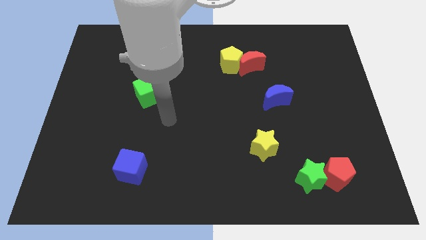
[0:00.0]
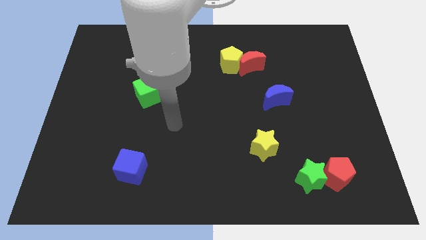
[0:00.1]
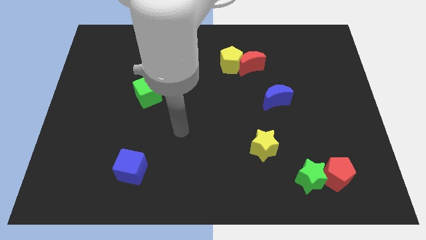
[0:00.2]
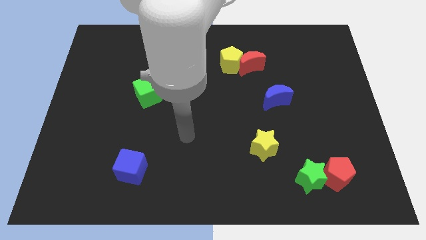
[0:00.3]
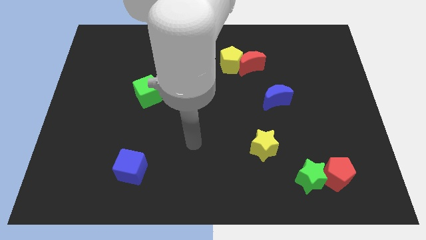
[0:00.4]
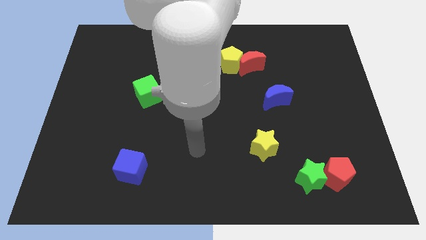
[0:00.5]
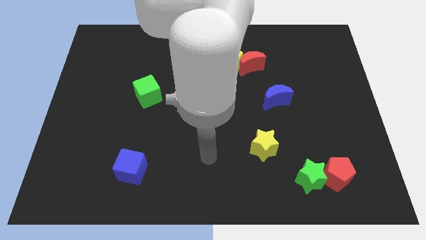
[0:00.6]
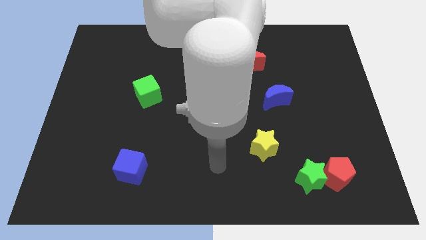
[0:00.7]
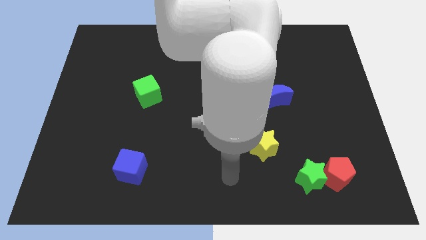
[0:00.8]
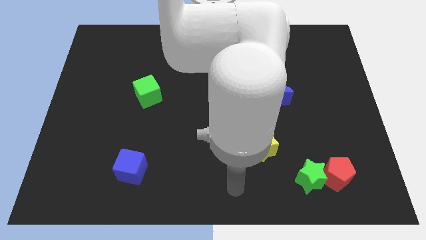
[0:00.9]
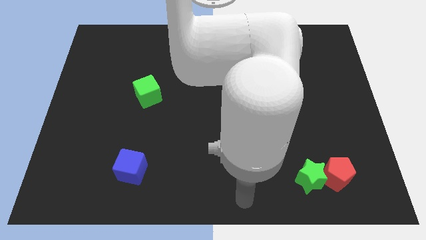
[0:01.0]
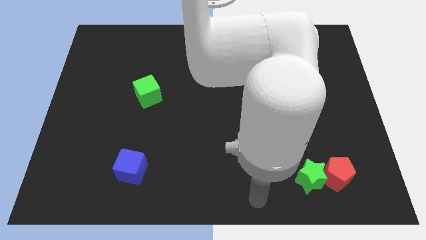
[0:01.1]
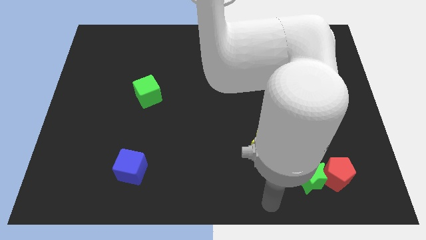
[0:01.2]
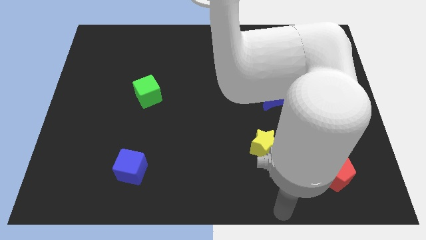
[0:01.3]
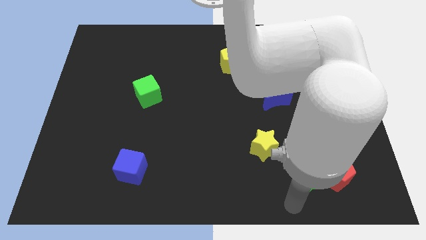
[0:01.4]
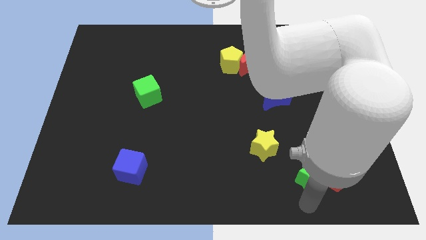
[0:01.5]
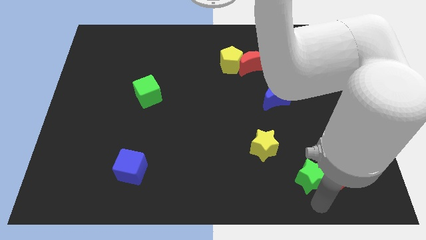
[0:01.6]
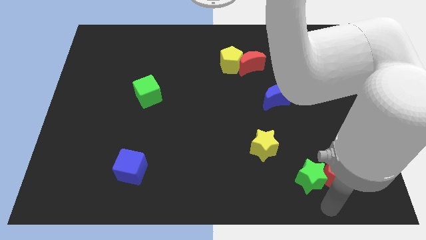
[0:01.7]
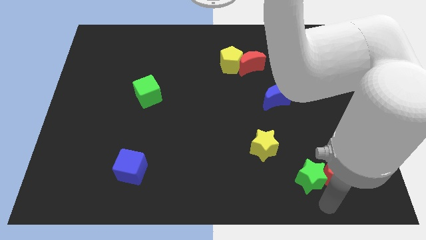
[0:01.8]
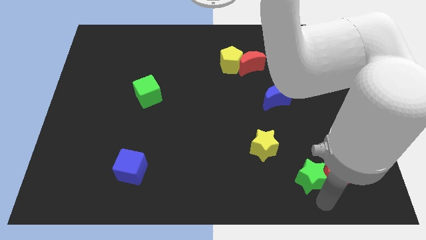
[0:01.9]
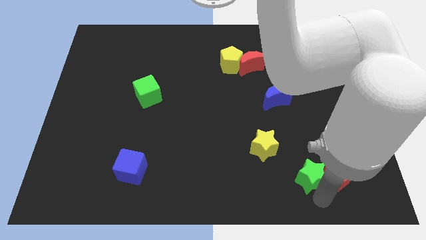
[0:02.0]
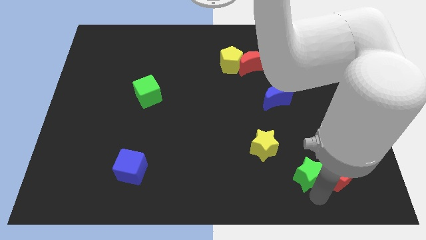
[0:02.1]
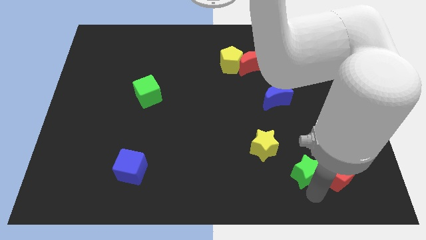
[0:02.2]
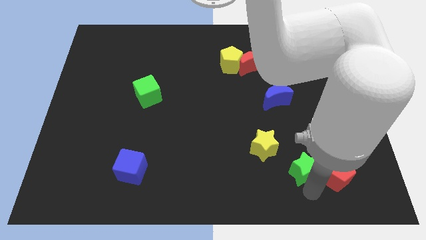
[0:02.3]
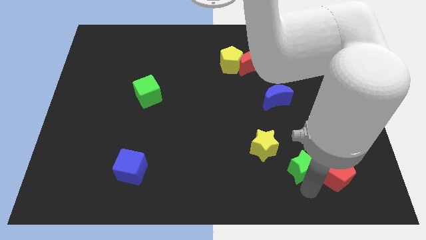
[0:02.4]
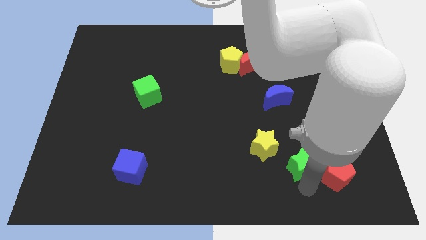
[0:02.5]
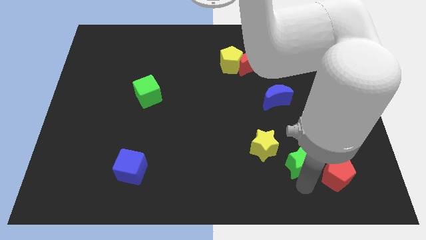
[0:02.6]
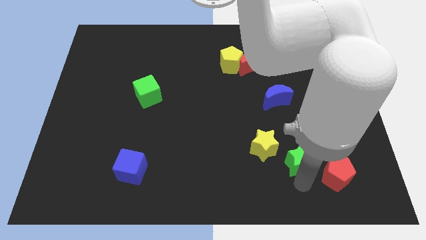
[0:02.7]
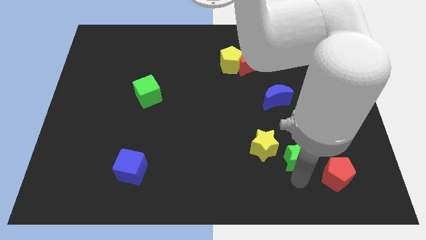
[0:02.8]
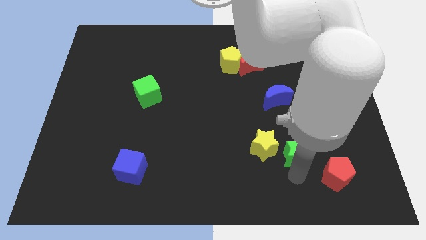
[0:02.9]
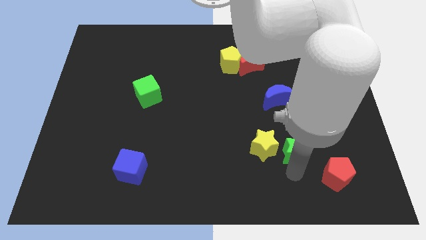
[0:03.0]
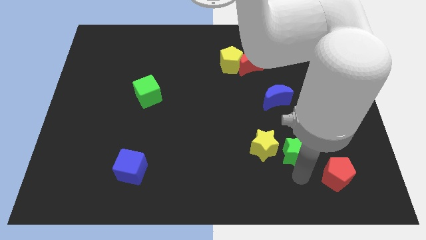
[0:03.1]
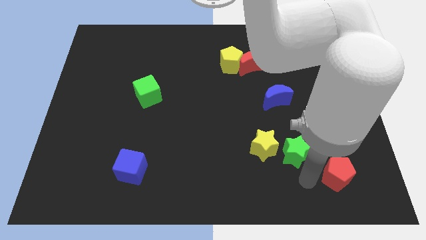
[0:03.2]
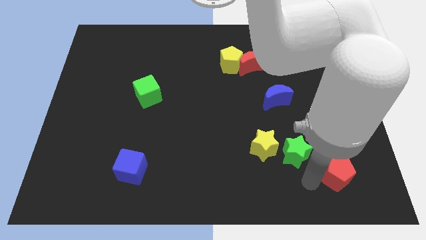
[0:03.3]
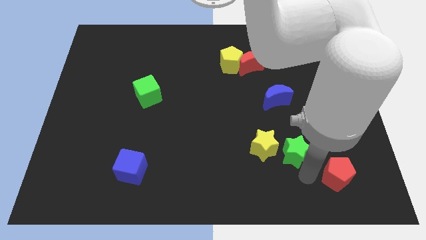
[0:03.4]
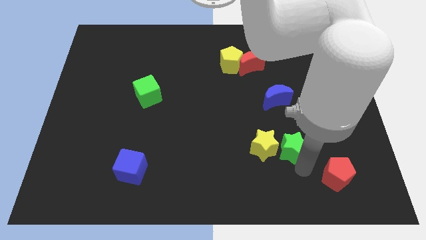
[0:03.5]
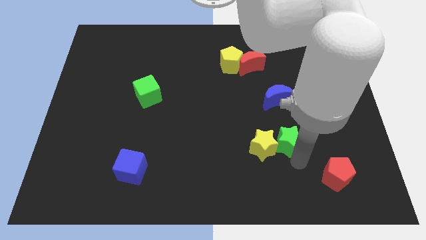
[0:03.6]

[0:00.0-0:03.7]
move the green star a bit diagonally upwards and to the left

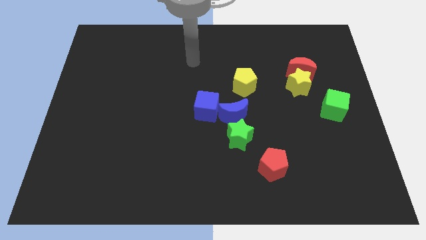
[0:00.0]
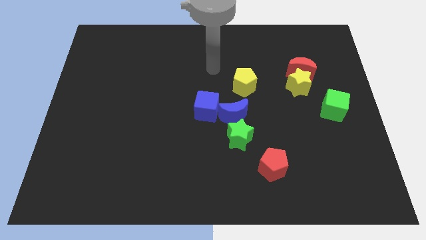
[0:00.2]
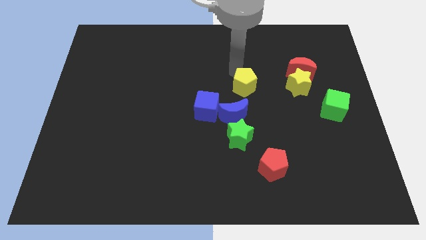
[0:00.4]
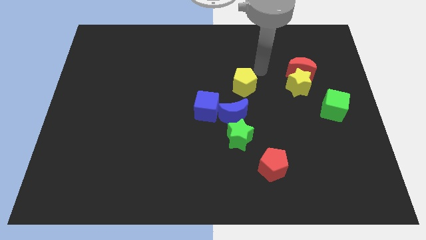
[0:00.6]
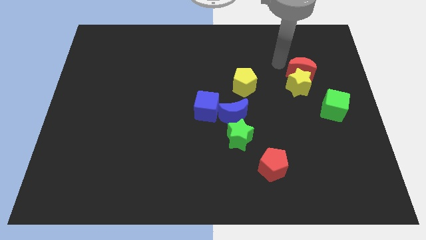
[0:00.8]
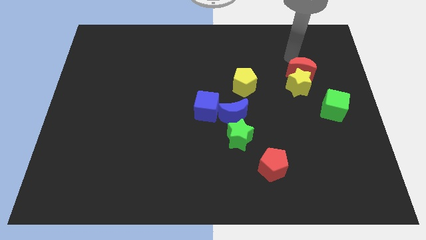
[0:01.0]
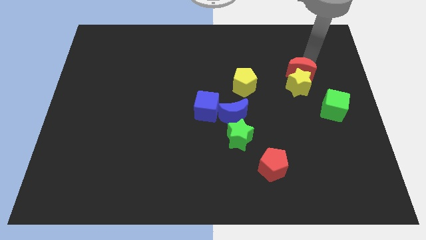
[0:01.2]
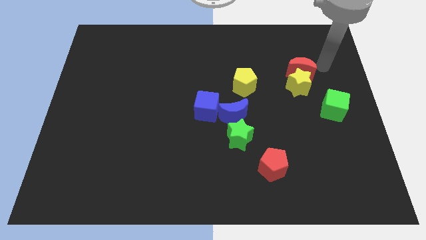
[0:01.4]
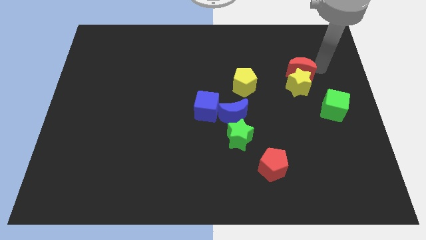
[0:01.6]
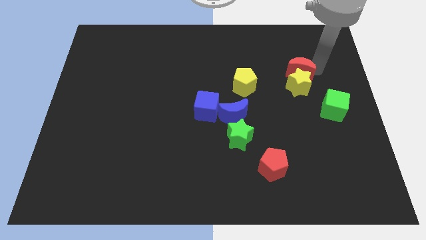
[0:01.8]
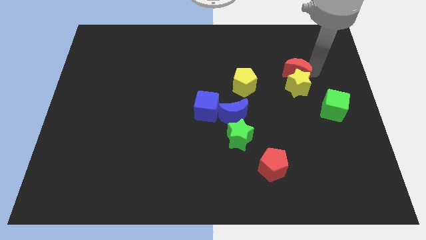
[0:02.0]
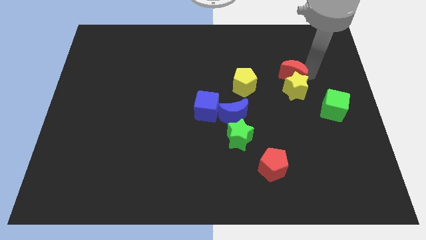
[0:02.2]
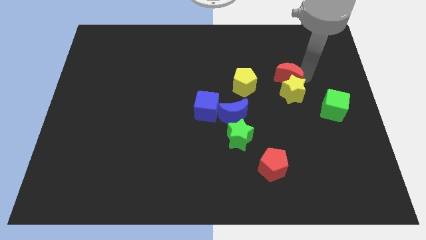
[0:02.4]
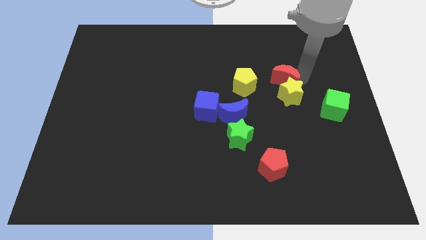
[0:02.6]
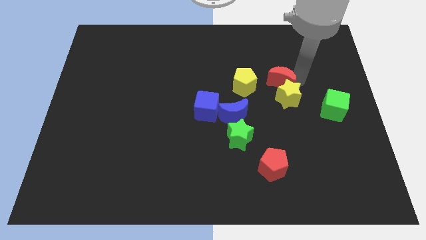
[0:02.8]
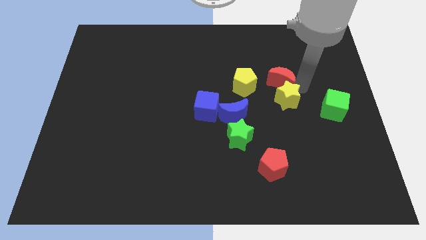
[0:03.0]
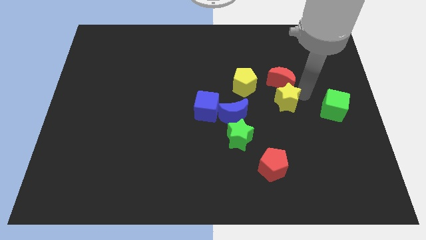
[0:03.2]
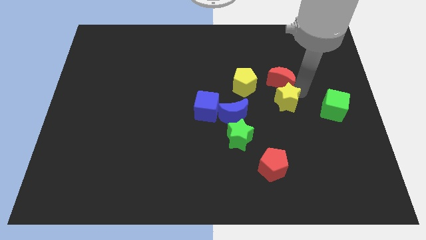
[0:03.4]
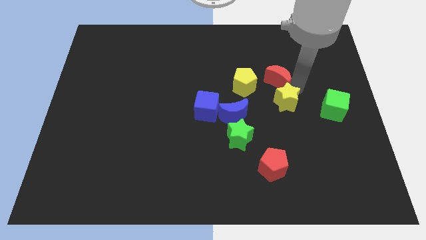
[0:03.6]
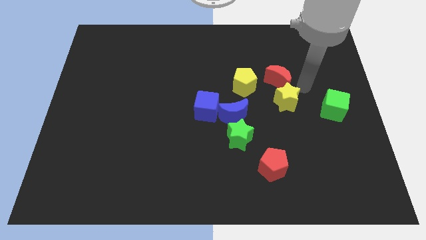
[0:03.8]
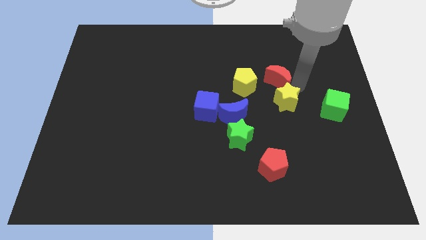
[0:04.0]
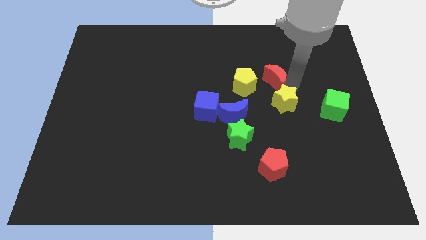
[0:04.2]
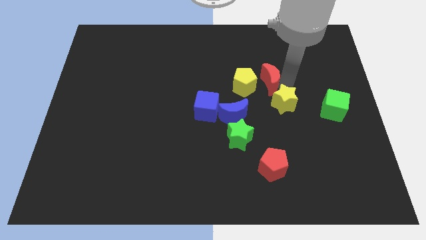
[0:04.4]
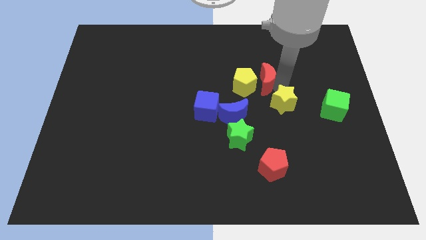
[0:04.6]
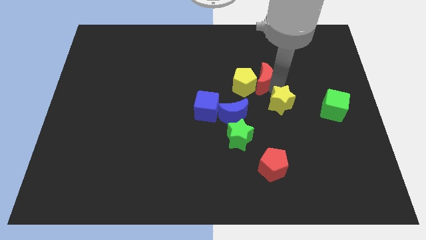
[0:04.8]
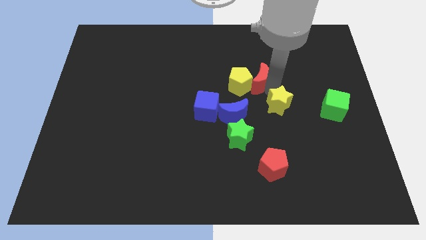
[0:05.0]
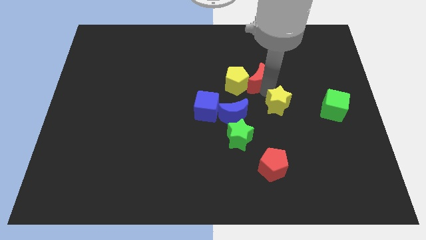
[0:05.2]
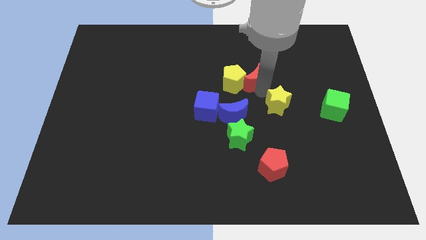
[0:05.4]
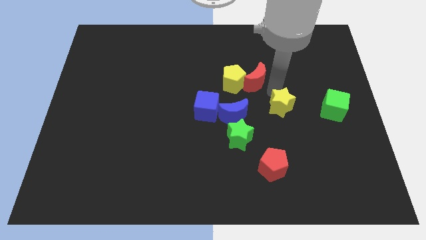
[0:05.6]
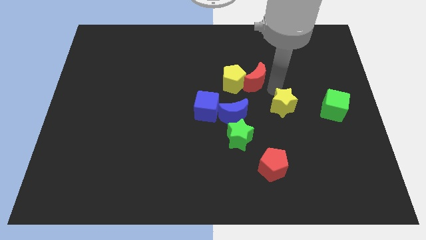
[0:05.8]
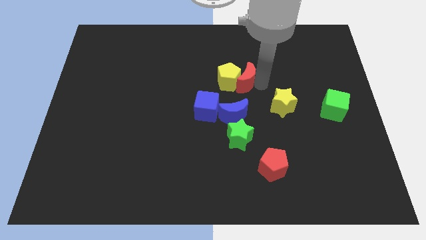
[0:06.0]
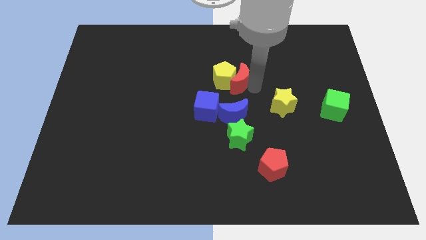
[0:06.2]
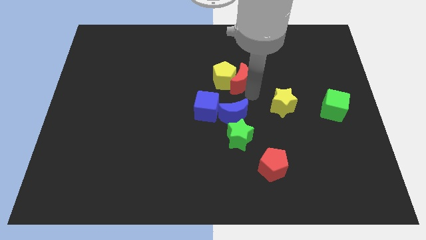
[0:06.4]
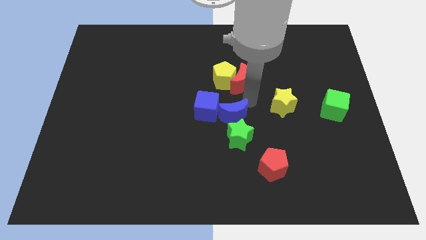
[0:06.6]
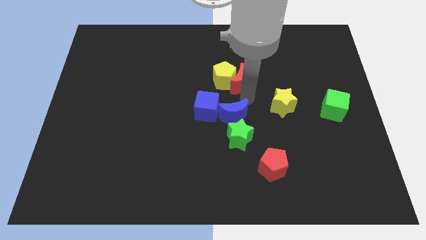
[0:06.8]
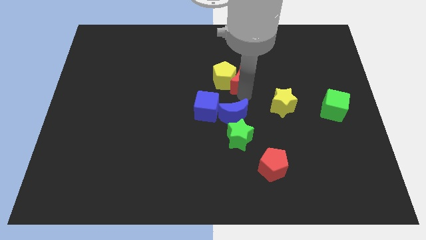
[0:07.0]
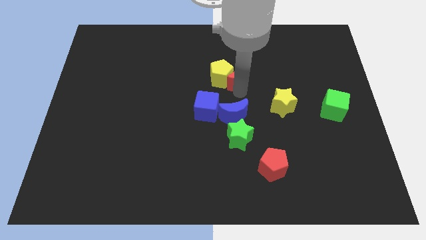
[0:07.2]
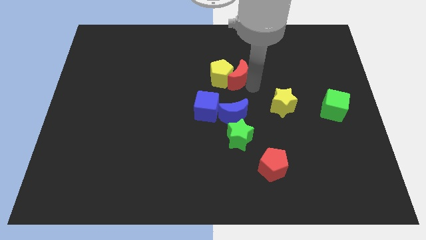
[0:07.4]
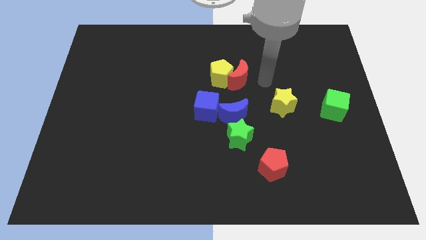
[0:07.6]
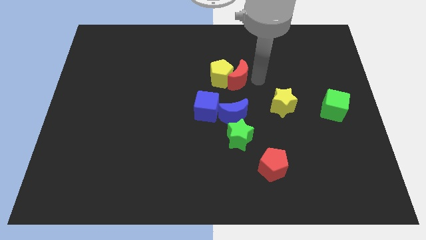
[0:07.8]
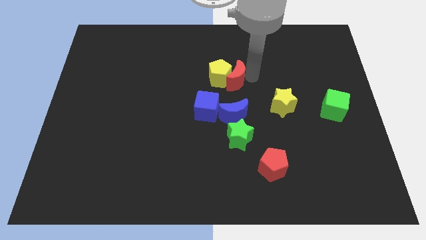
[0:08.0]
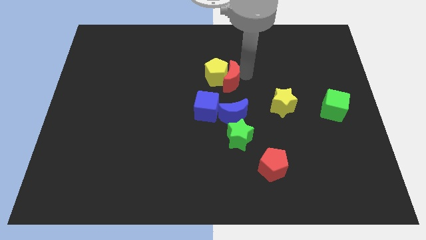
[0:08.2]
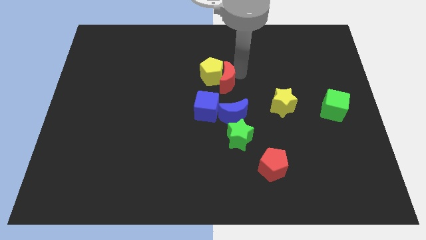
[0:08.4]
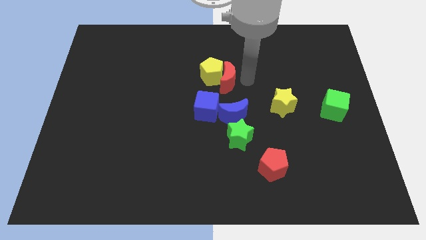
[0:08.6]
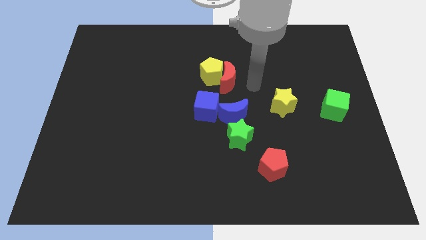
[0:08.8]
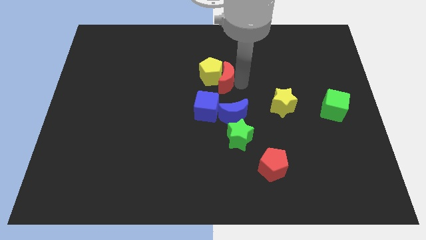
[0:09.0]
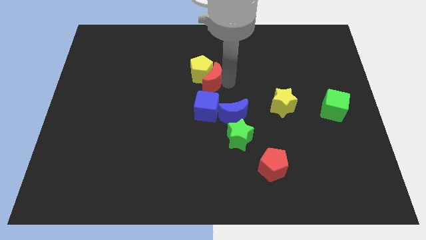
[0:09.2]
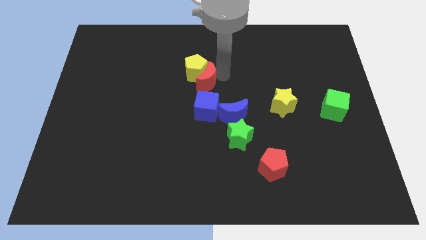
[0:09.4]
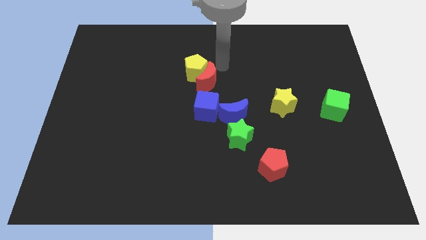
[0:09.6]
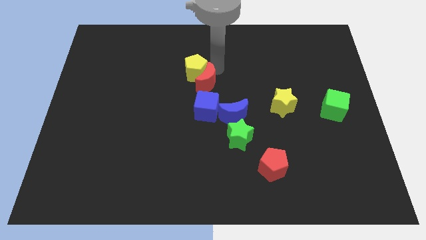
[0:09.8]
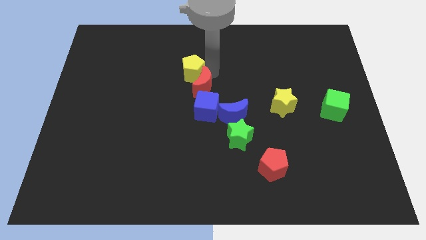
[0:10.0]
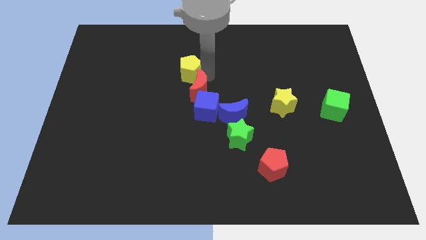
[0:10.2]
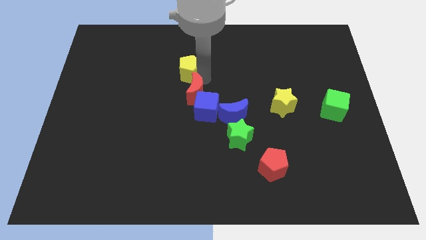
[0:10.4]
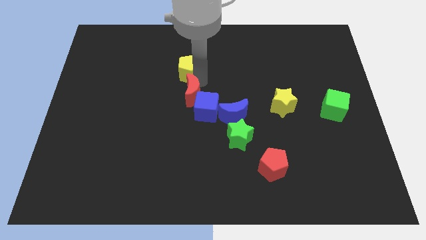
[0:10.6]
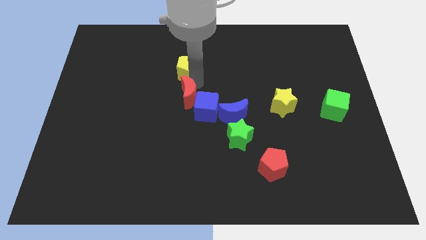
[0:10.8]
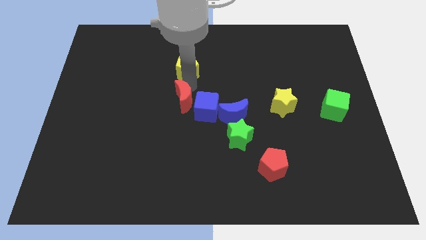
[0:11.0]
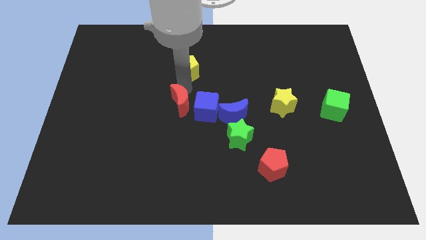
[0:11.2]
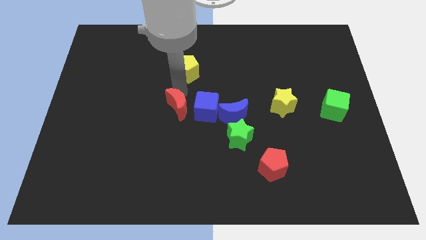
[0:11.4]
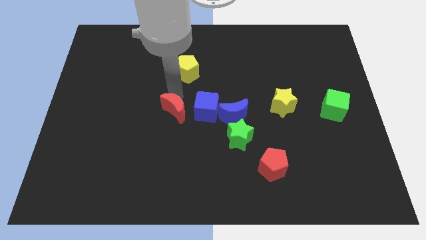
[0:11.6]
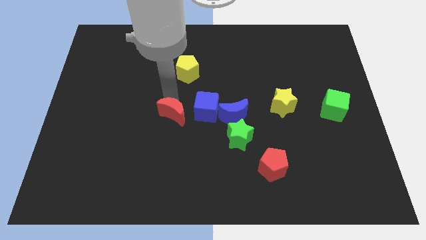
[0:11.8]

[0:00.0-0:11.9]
push the red moon down and then left
